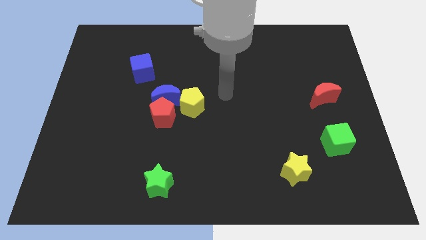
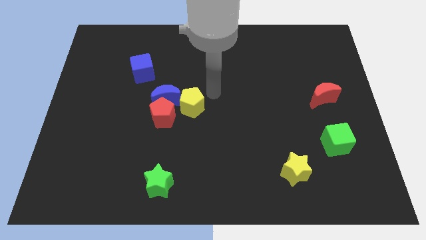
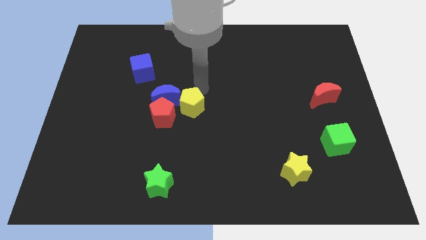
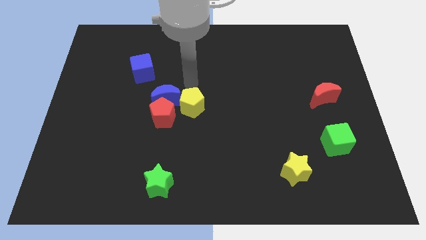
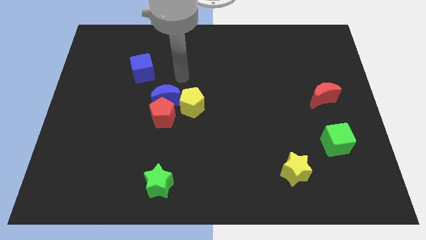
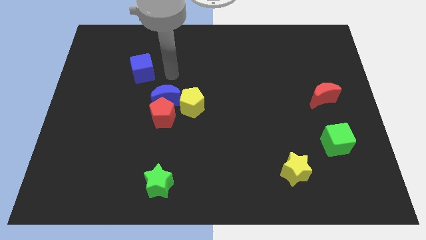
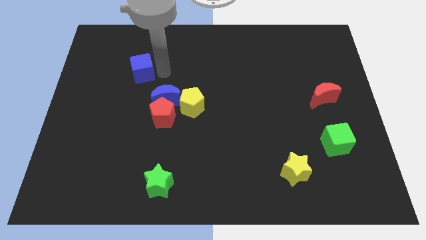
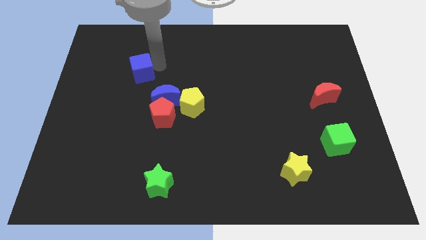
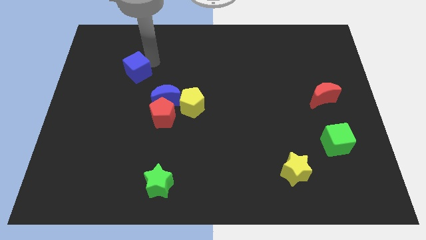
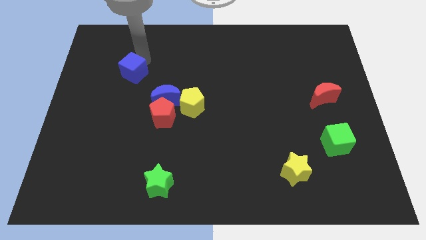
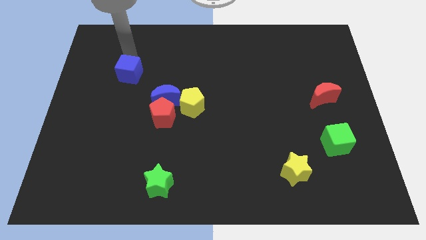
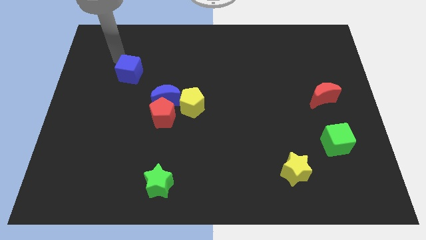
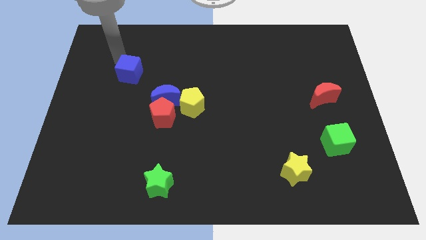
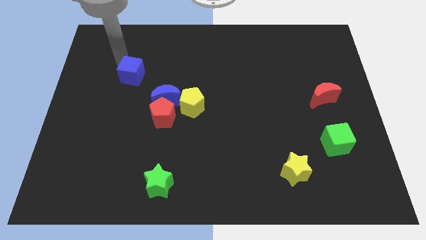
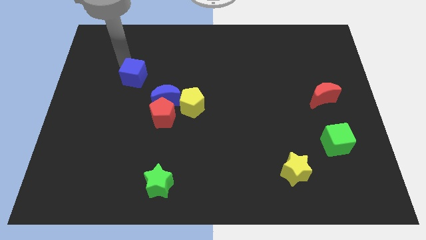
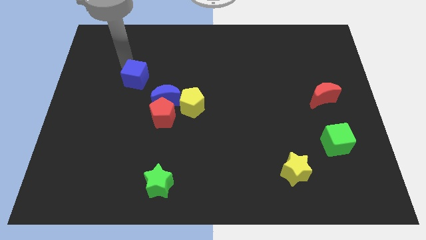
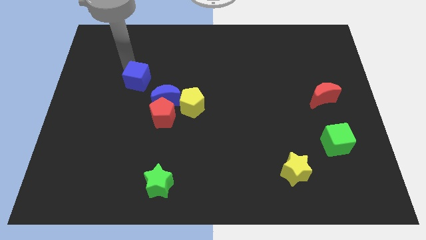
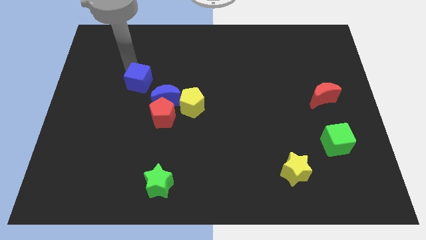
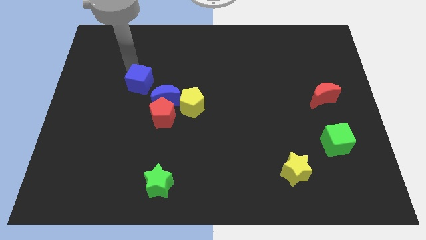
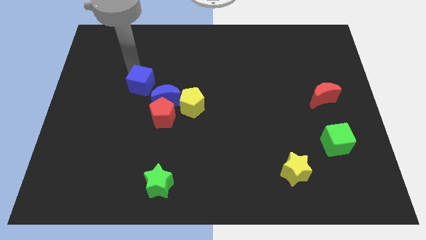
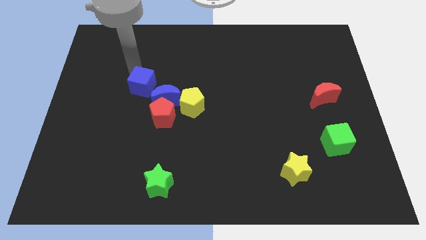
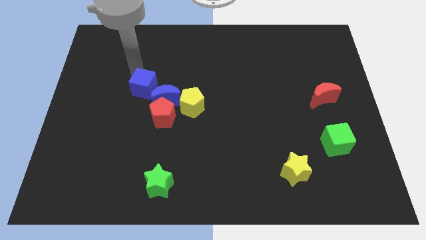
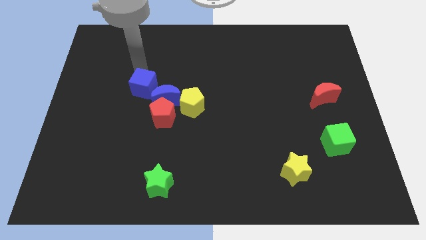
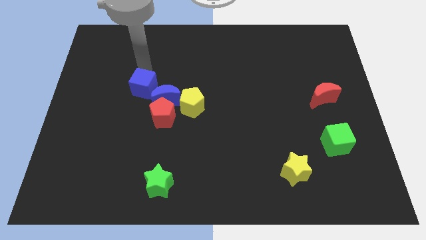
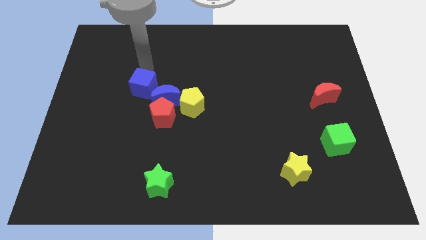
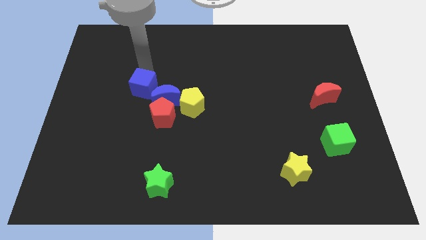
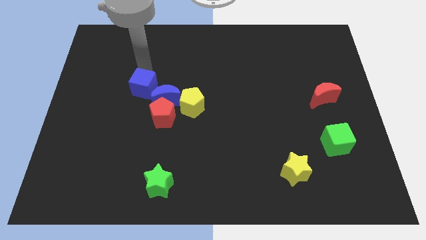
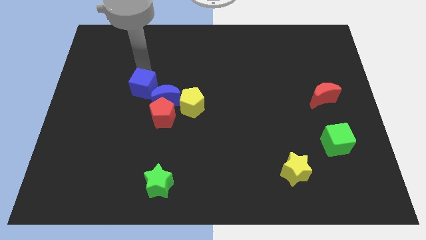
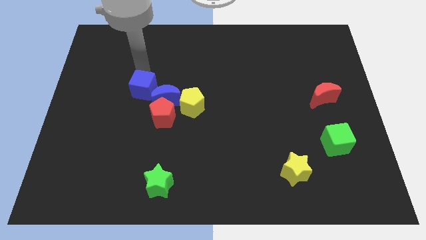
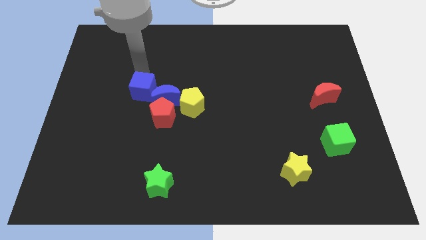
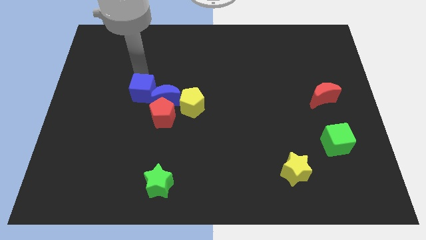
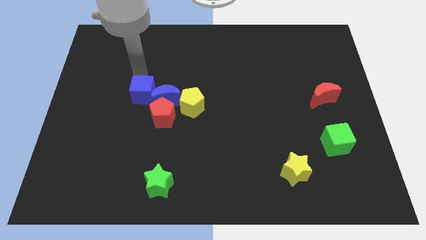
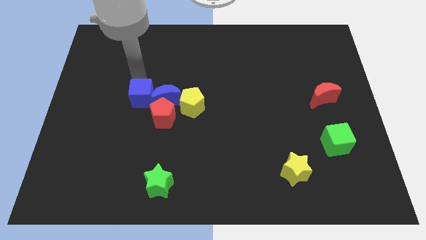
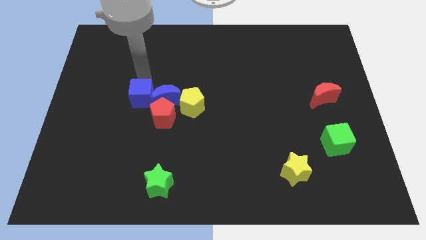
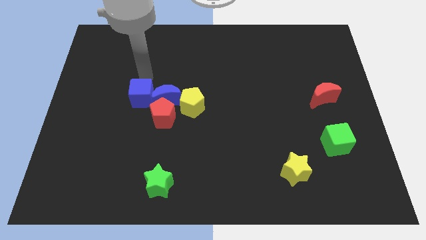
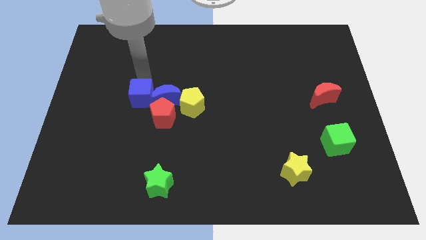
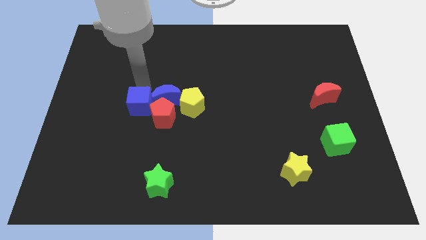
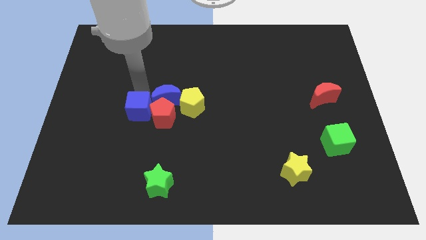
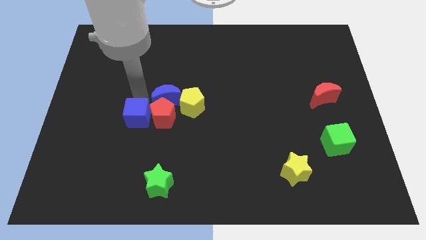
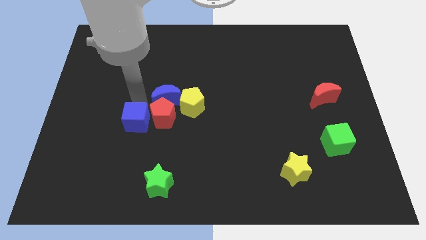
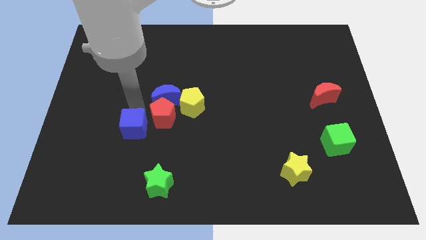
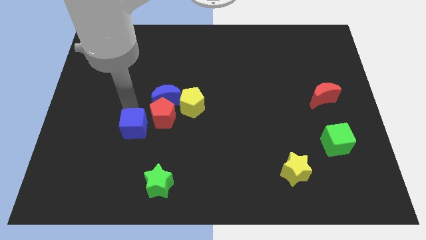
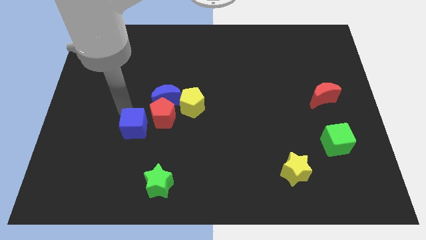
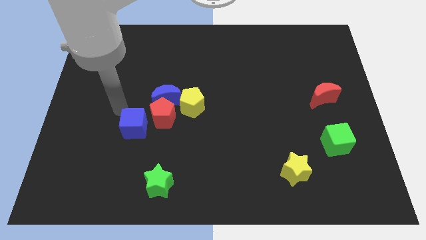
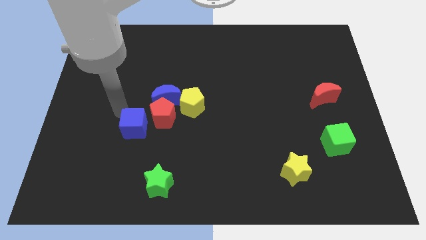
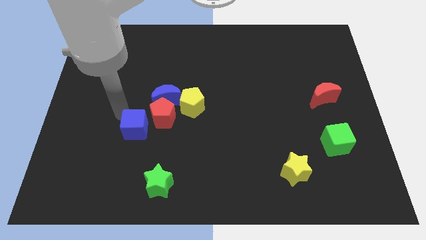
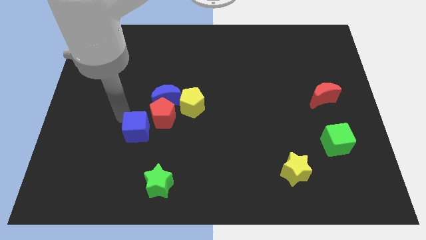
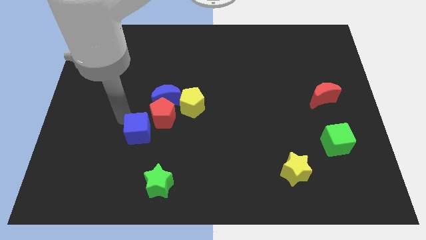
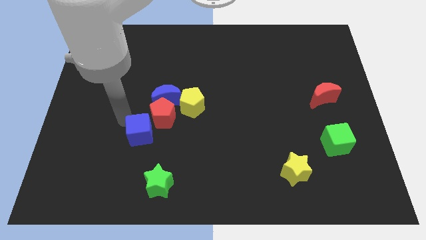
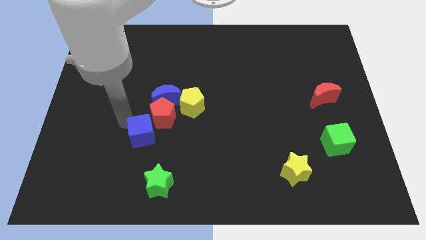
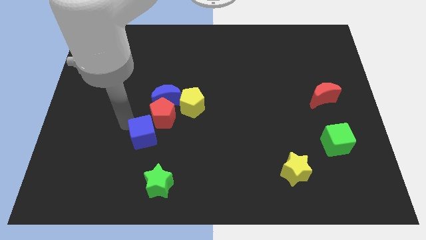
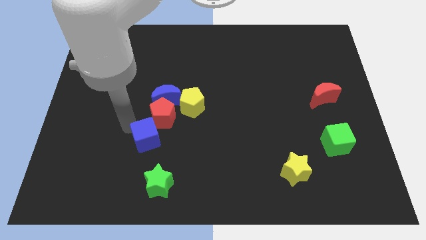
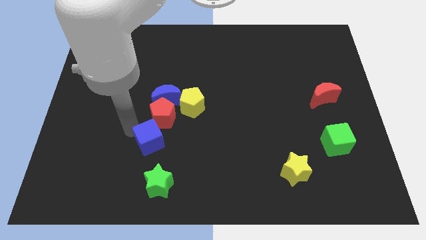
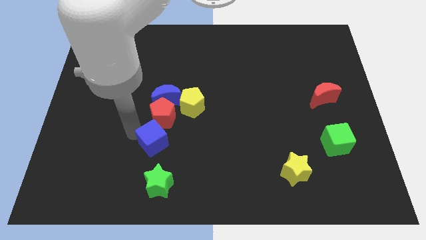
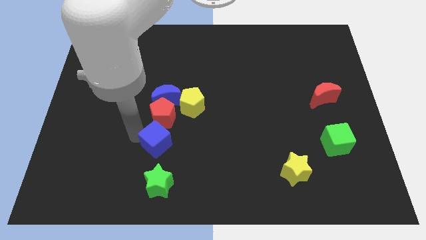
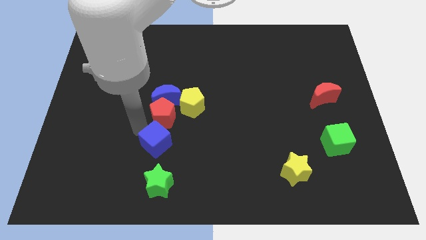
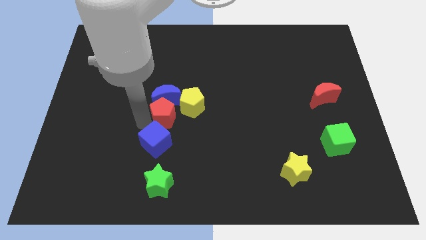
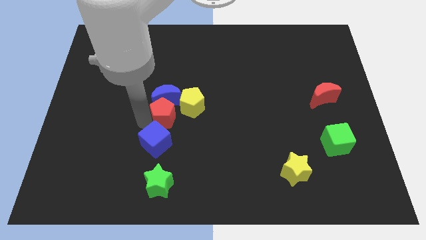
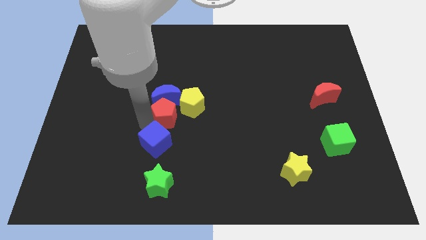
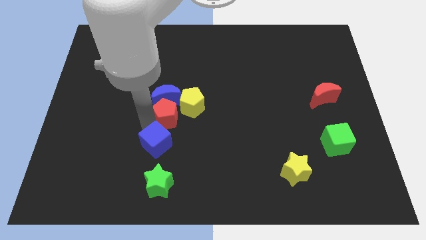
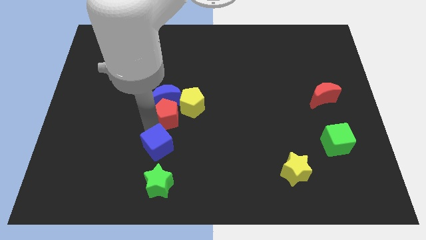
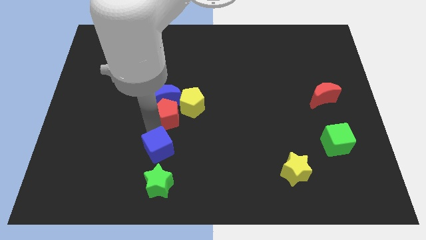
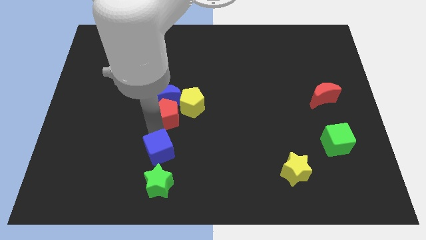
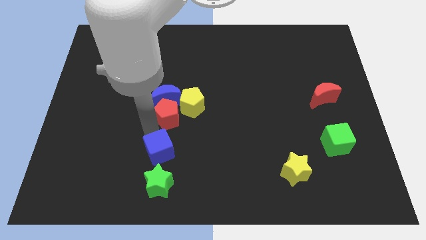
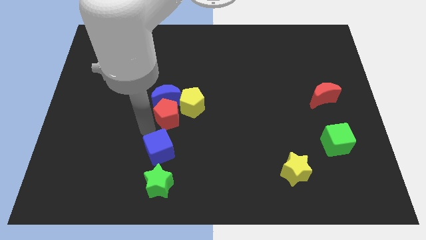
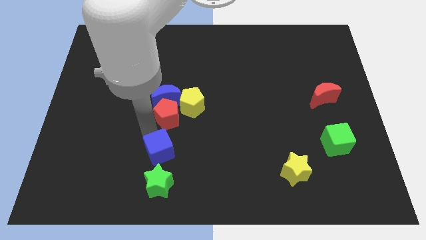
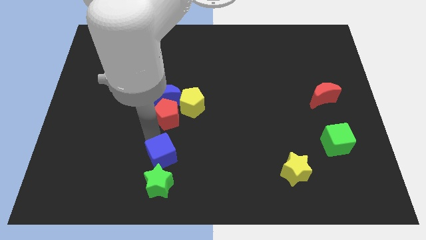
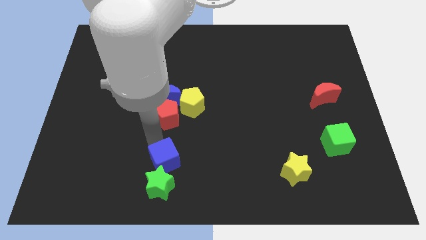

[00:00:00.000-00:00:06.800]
push the blue cube towards the green star
